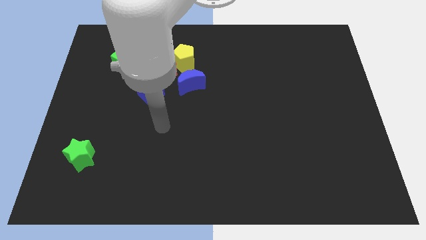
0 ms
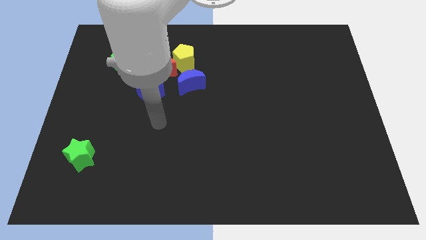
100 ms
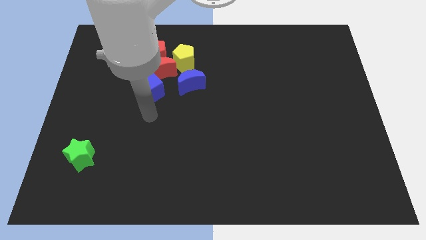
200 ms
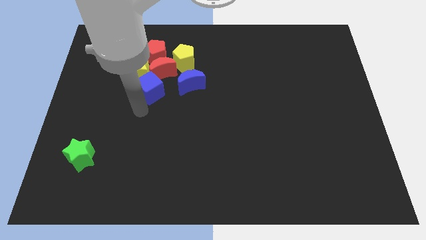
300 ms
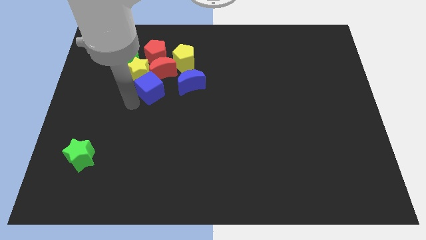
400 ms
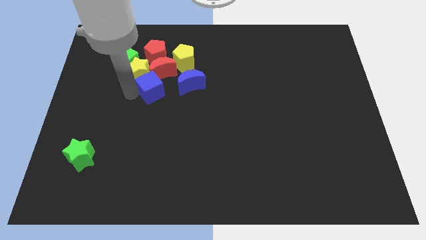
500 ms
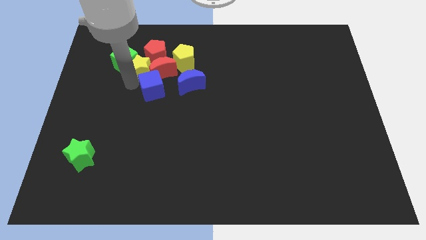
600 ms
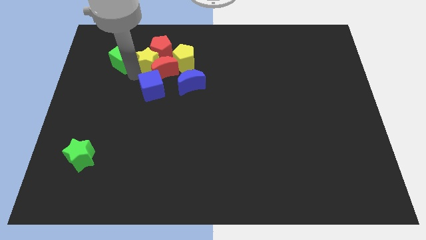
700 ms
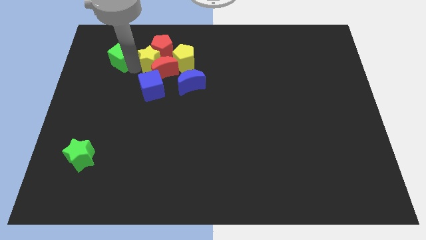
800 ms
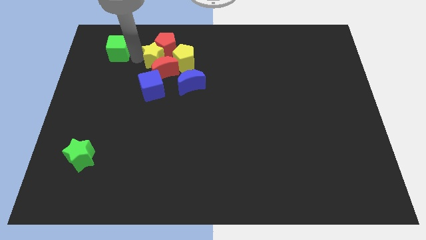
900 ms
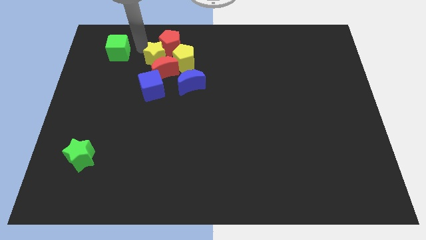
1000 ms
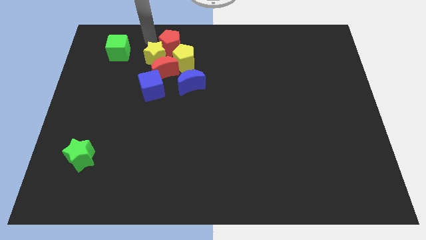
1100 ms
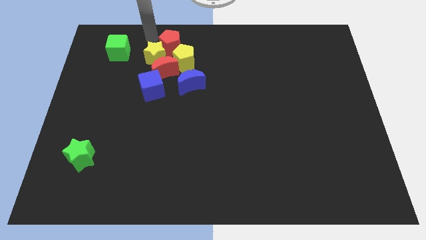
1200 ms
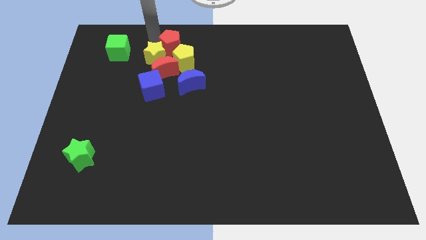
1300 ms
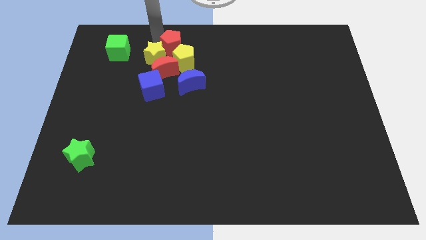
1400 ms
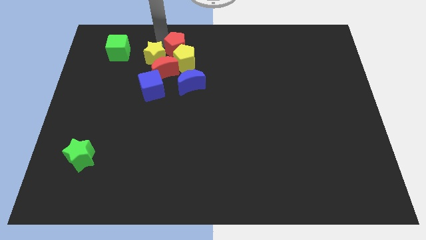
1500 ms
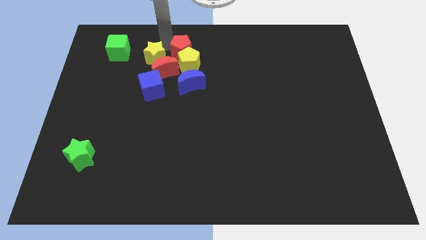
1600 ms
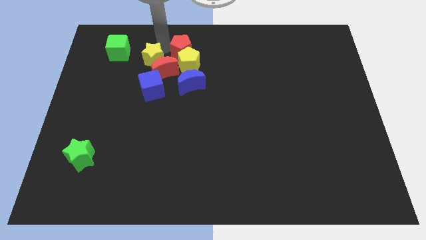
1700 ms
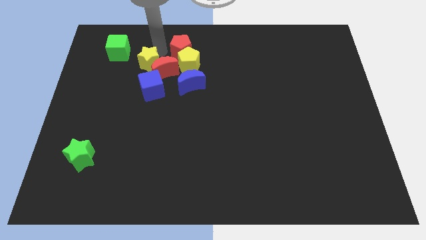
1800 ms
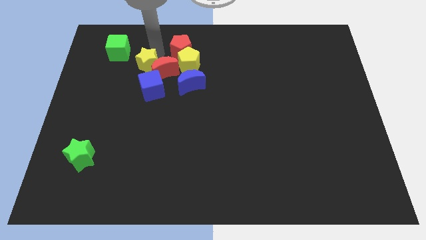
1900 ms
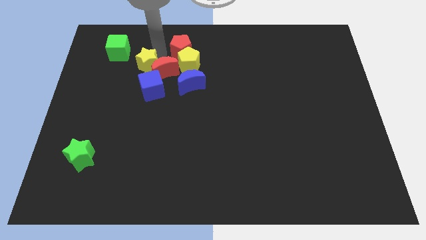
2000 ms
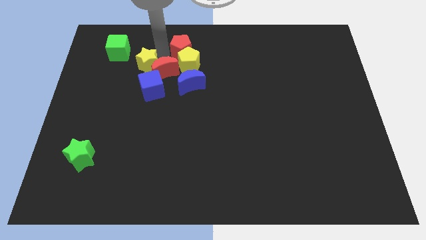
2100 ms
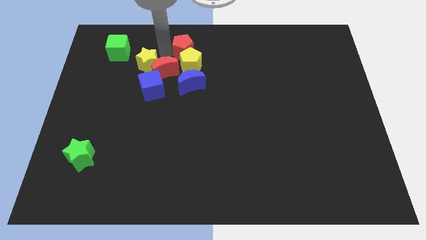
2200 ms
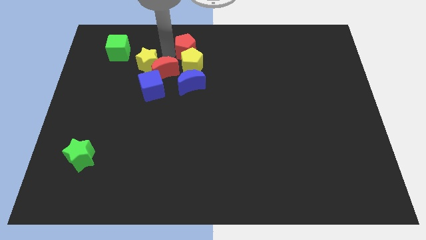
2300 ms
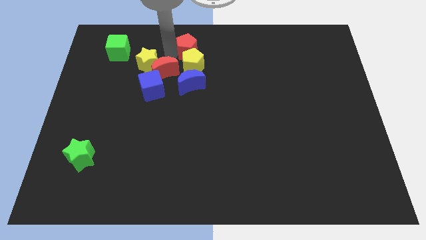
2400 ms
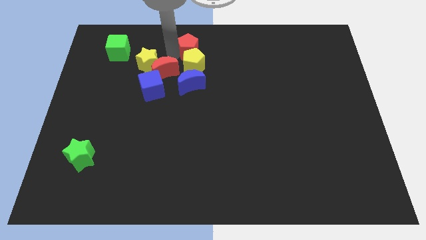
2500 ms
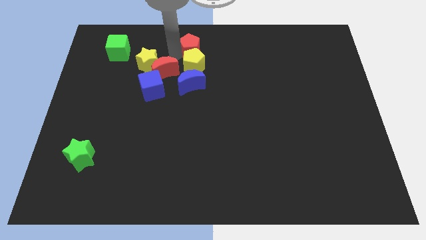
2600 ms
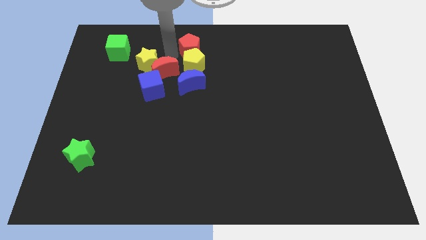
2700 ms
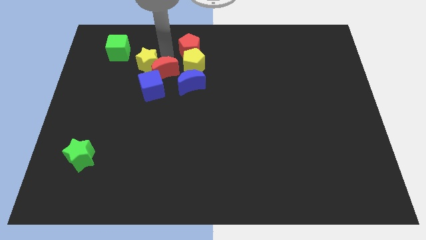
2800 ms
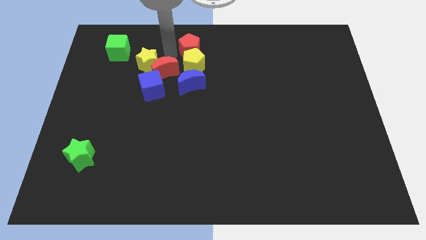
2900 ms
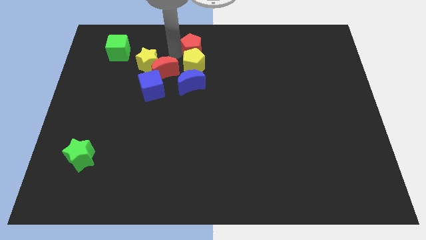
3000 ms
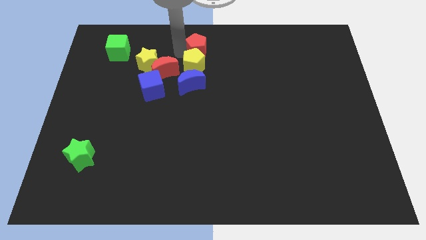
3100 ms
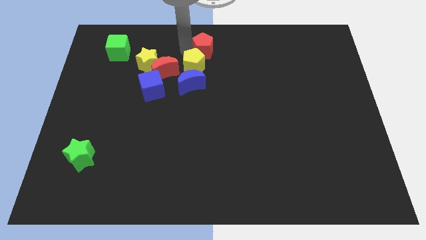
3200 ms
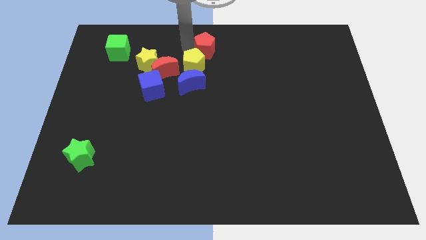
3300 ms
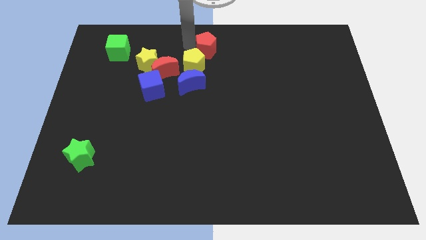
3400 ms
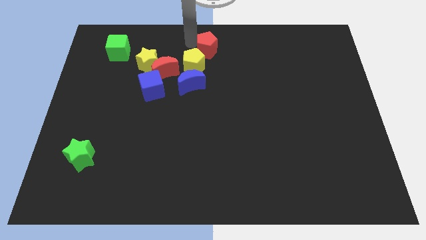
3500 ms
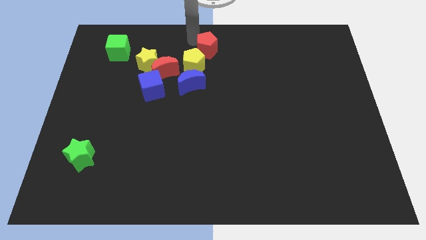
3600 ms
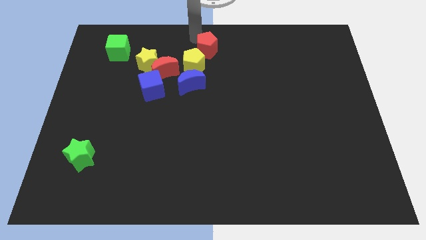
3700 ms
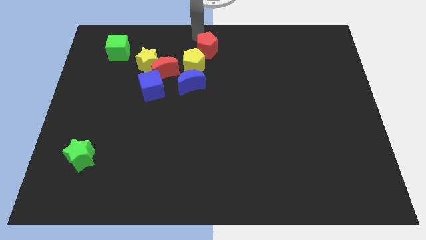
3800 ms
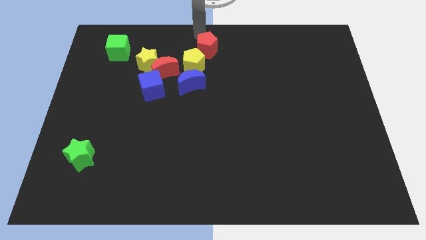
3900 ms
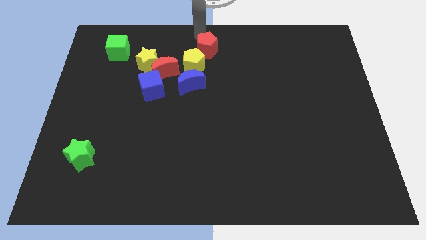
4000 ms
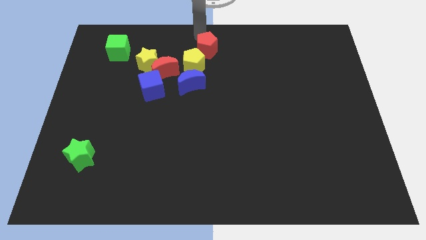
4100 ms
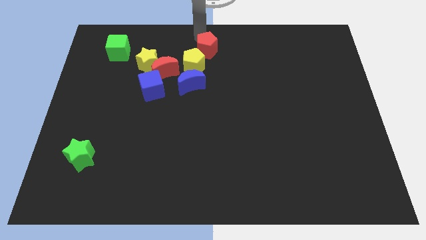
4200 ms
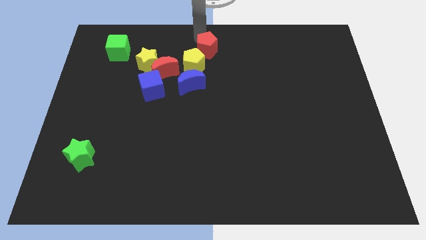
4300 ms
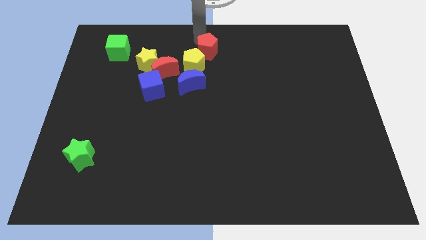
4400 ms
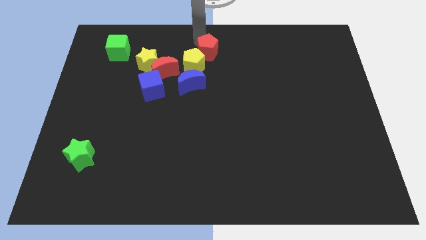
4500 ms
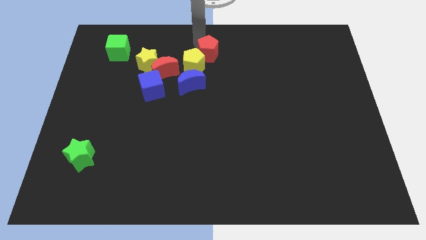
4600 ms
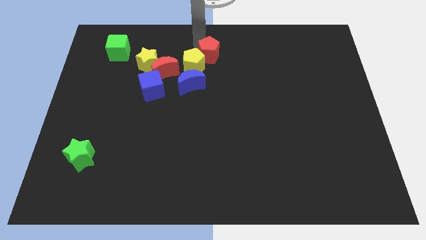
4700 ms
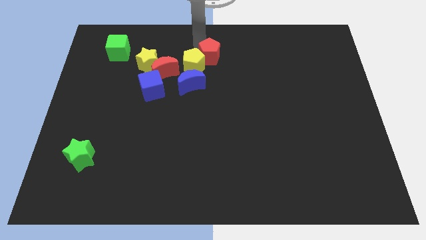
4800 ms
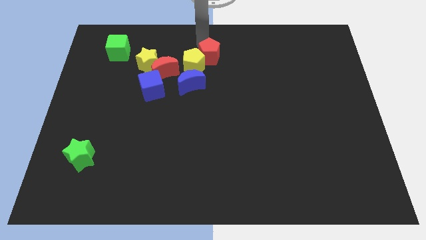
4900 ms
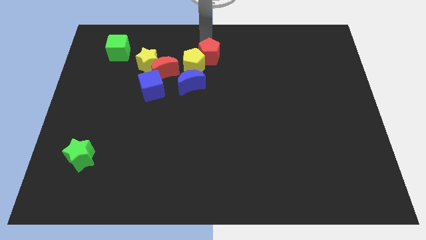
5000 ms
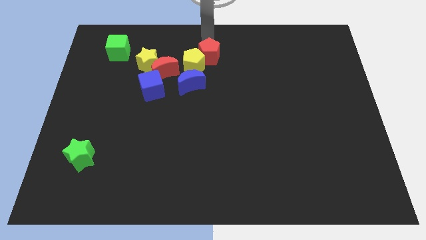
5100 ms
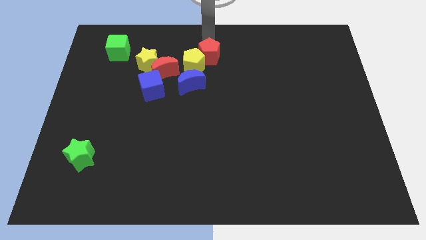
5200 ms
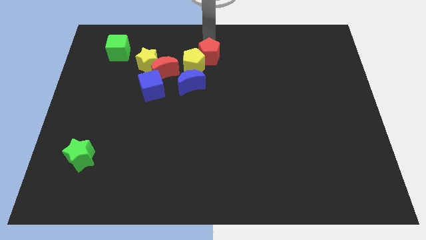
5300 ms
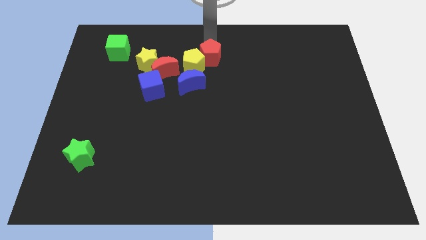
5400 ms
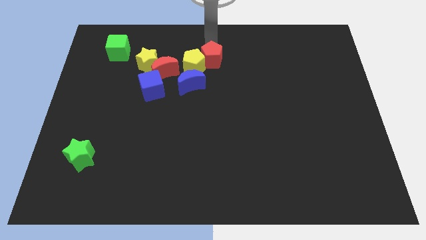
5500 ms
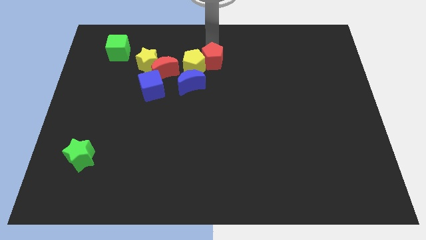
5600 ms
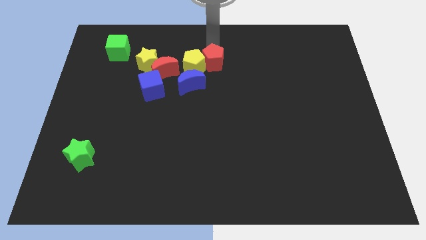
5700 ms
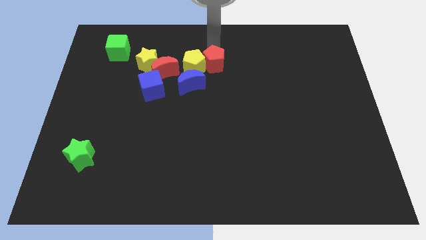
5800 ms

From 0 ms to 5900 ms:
put the red pentagon to the middle

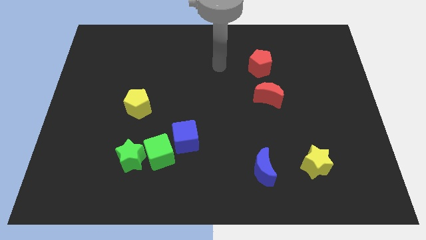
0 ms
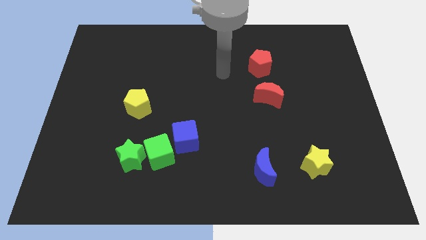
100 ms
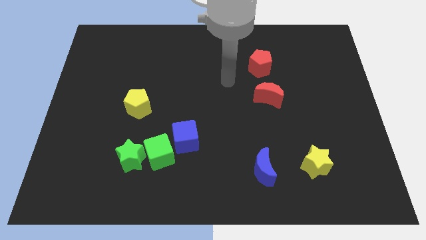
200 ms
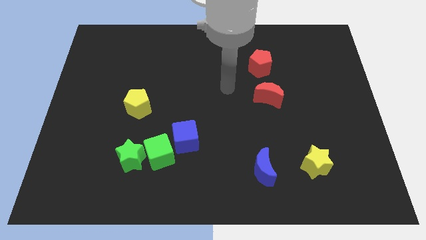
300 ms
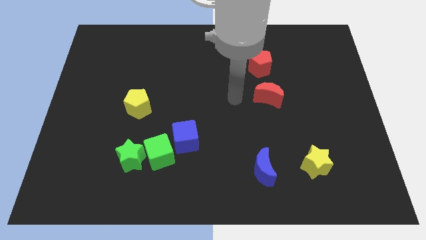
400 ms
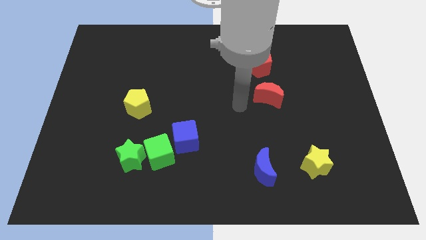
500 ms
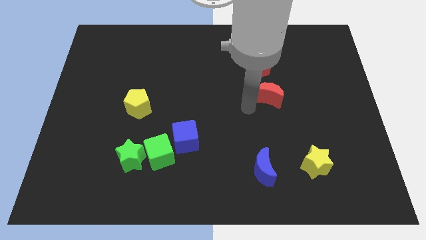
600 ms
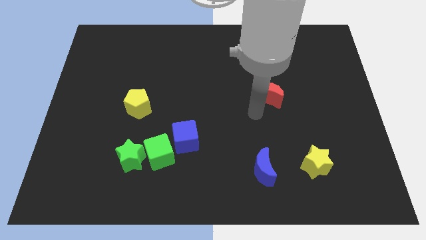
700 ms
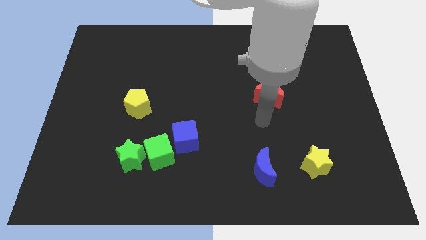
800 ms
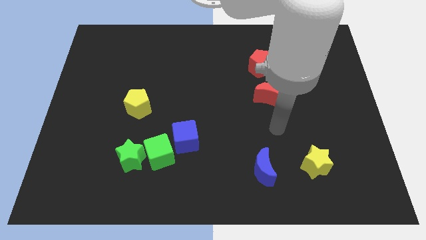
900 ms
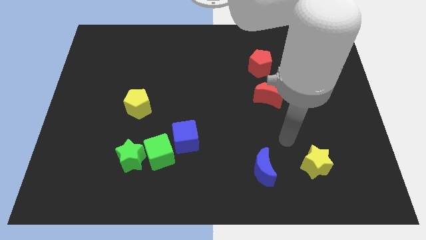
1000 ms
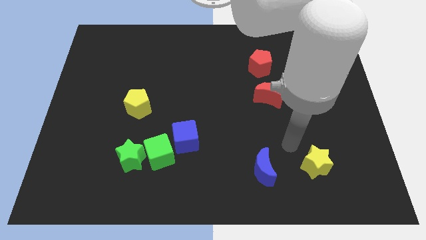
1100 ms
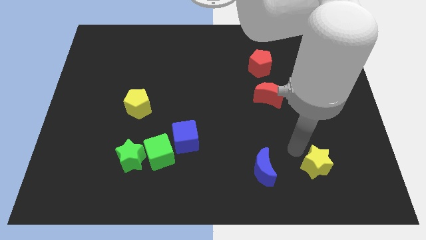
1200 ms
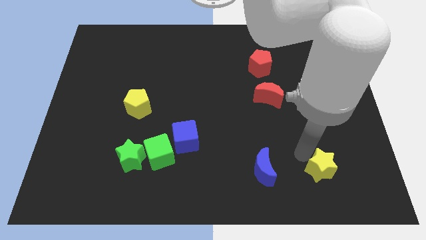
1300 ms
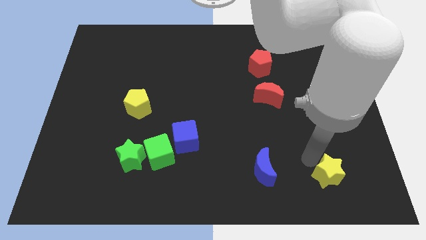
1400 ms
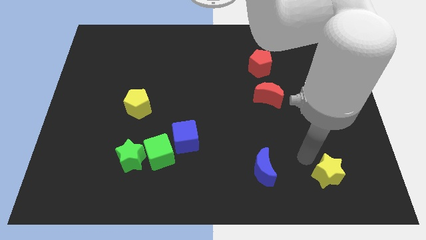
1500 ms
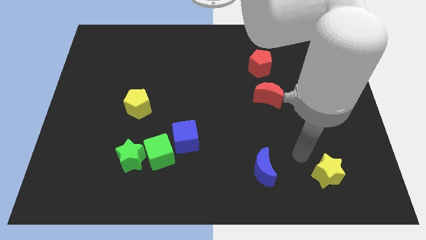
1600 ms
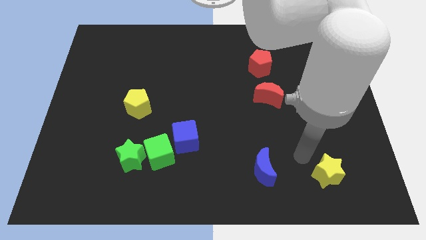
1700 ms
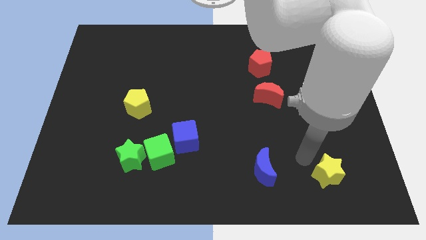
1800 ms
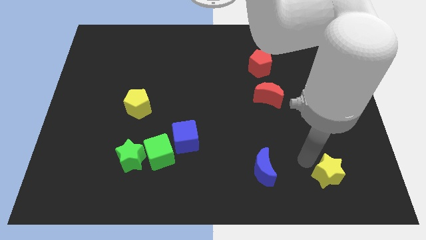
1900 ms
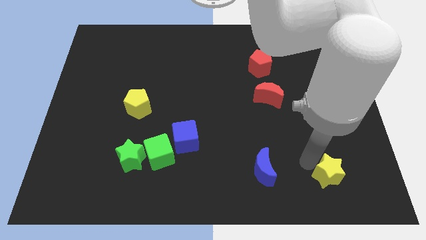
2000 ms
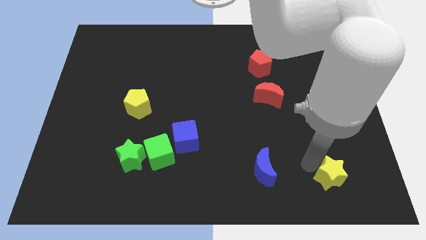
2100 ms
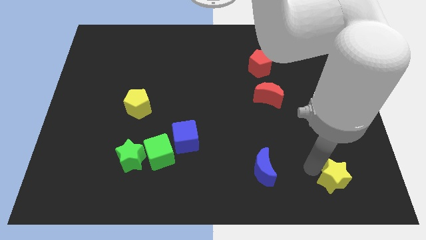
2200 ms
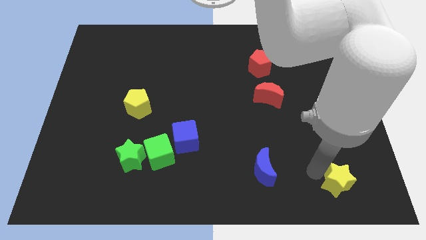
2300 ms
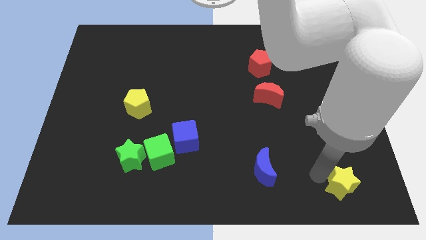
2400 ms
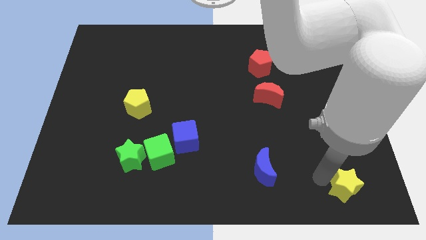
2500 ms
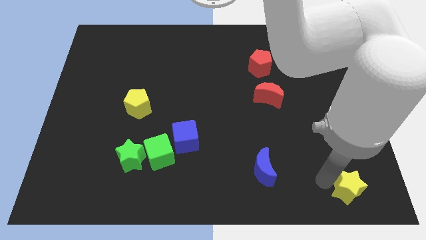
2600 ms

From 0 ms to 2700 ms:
put the yellow star to the bottom right of the board
